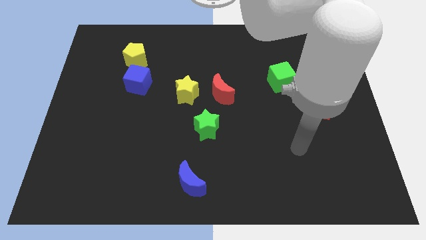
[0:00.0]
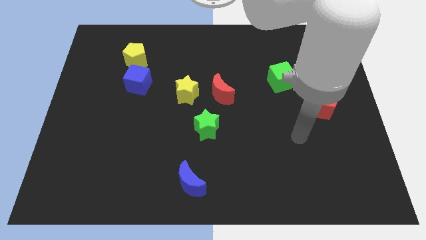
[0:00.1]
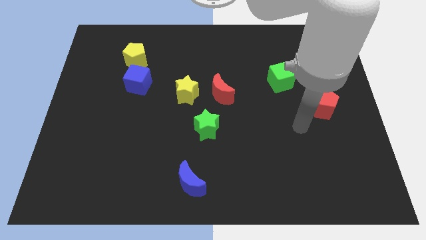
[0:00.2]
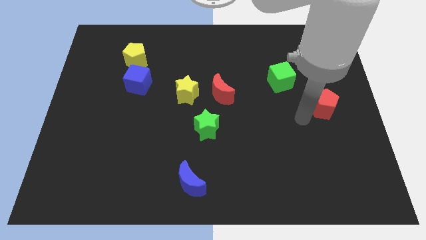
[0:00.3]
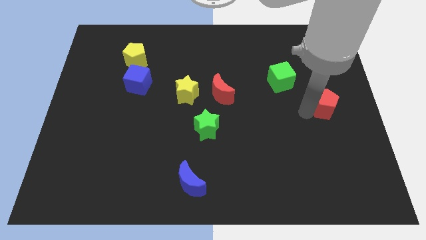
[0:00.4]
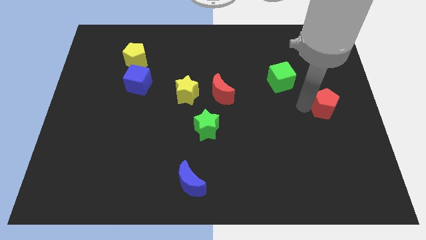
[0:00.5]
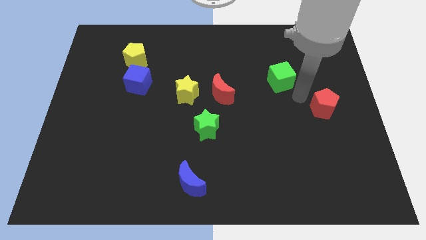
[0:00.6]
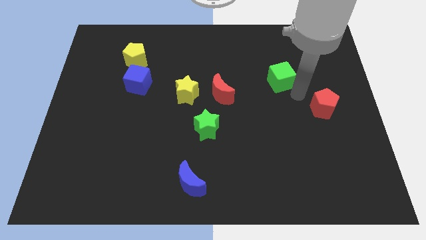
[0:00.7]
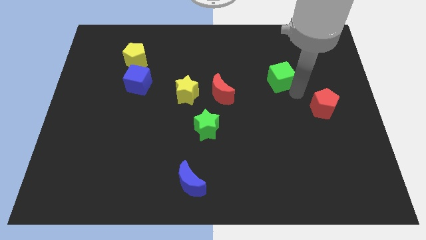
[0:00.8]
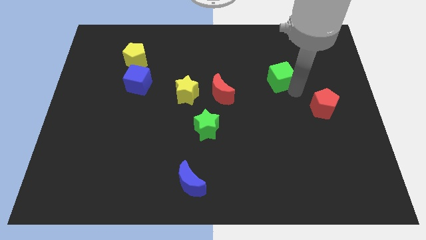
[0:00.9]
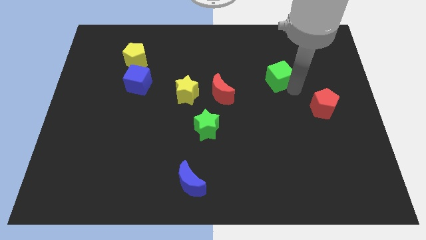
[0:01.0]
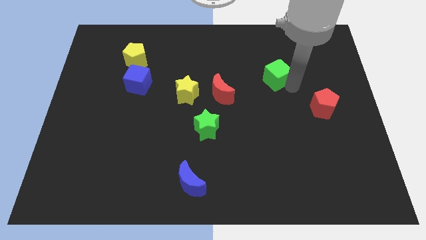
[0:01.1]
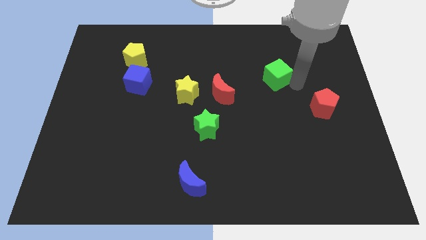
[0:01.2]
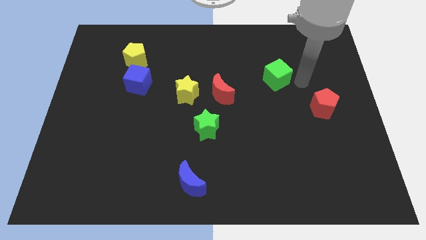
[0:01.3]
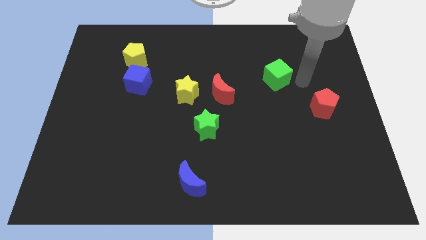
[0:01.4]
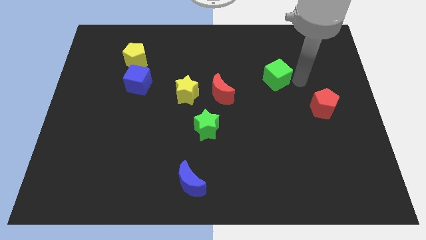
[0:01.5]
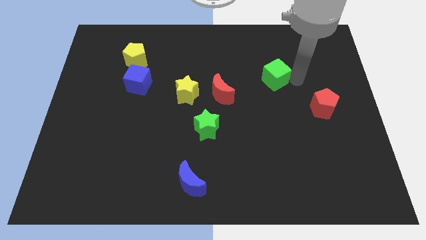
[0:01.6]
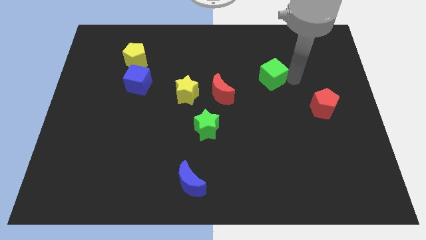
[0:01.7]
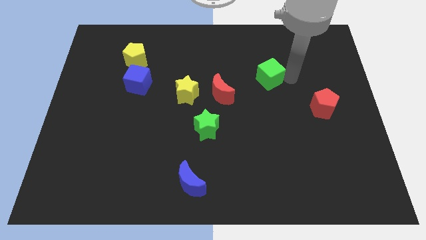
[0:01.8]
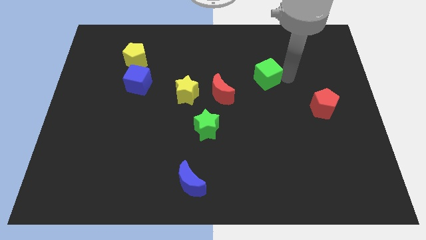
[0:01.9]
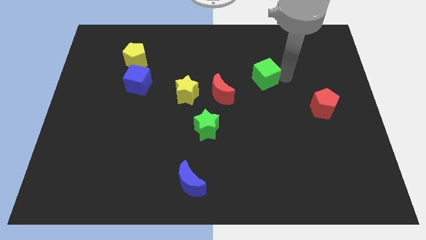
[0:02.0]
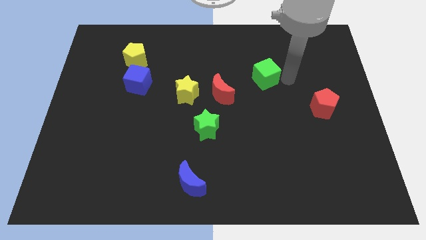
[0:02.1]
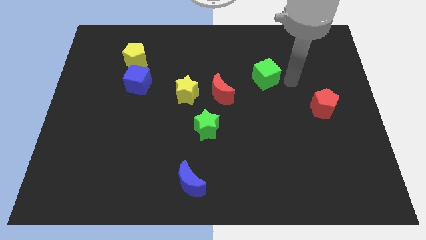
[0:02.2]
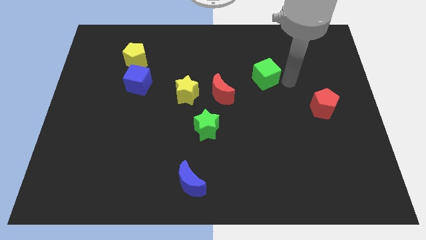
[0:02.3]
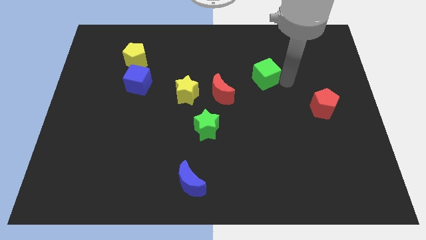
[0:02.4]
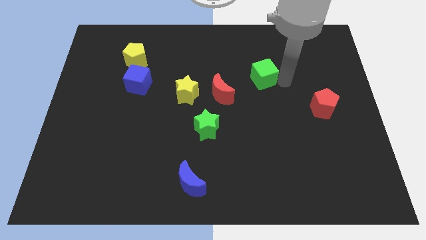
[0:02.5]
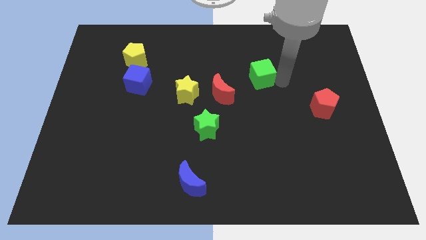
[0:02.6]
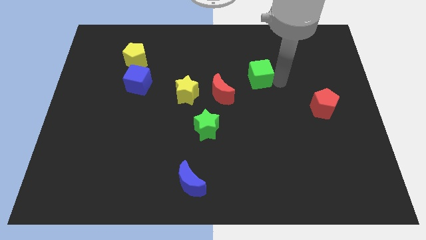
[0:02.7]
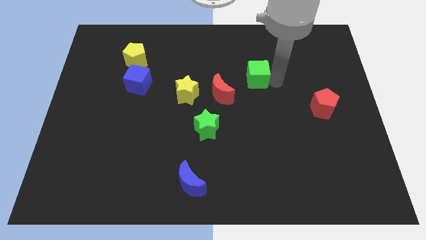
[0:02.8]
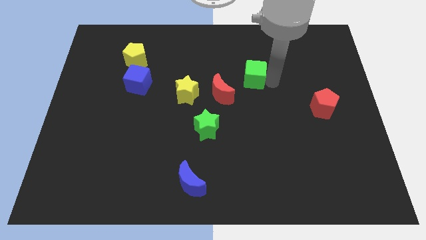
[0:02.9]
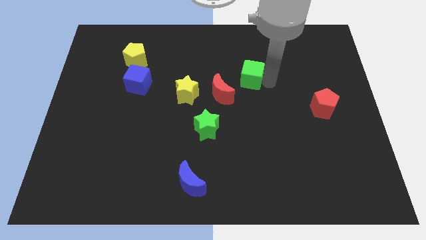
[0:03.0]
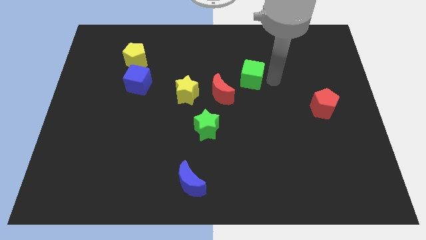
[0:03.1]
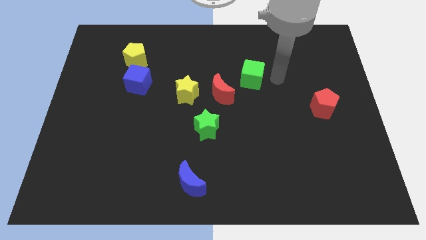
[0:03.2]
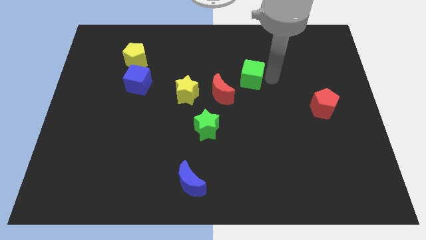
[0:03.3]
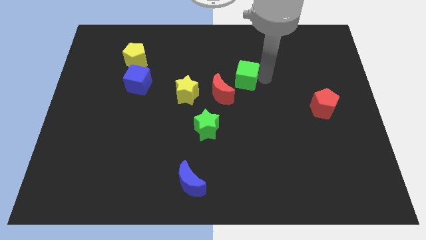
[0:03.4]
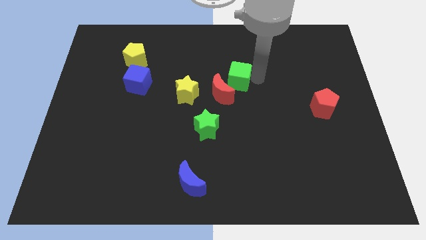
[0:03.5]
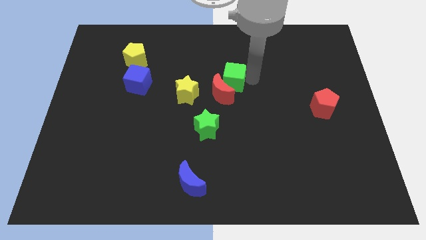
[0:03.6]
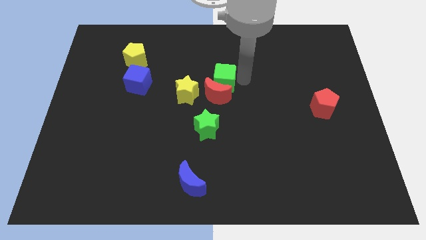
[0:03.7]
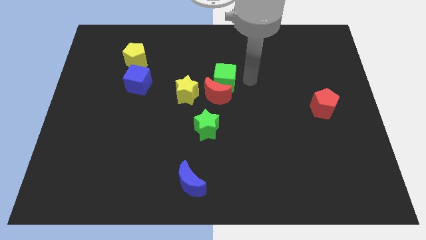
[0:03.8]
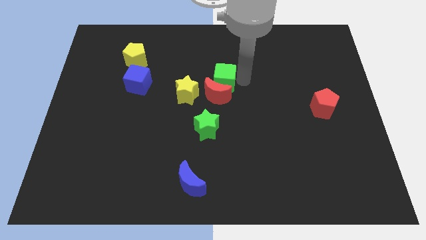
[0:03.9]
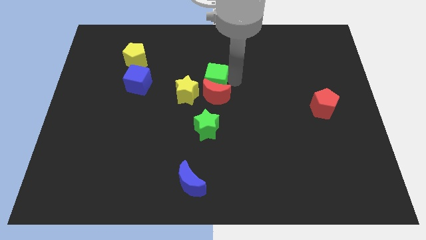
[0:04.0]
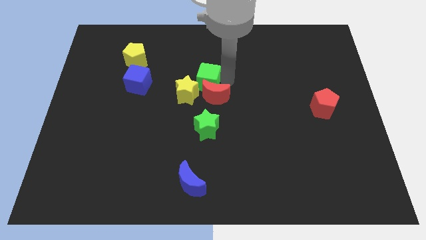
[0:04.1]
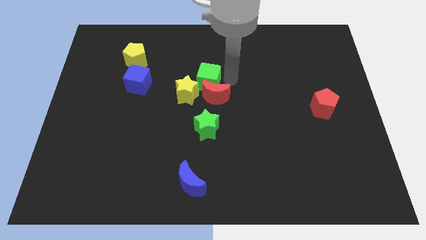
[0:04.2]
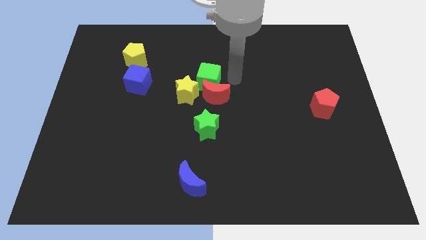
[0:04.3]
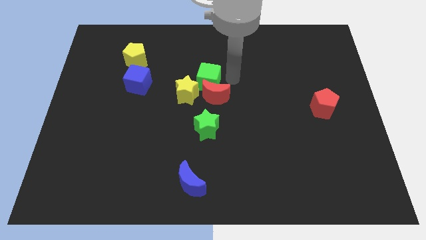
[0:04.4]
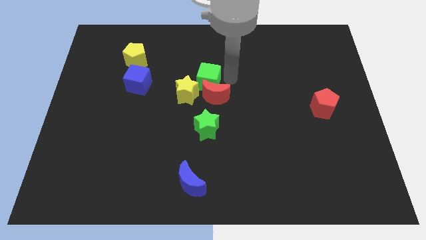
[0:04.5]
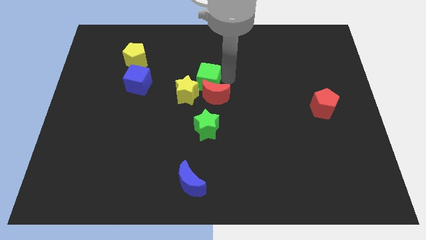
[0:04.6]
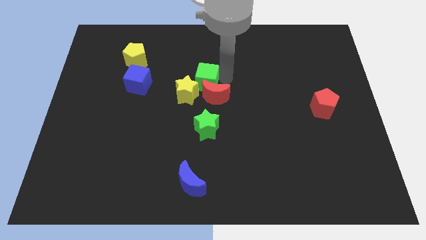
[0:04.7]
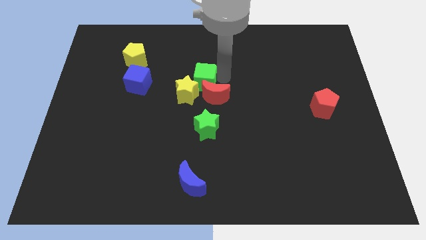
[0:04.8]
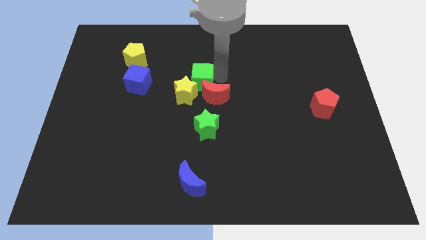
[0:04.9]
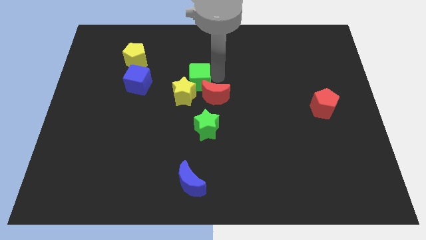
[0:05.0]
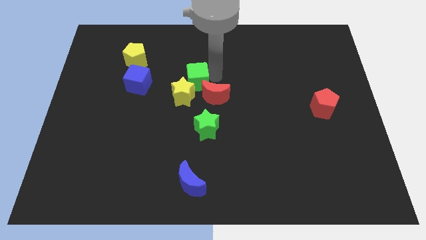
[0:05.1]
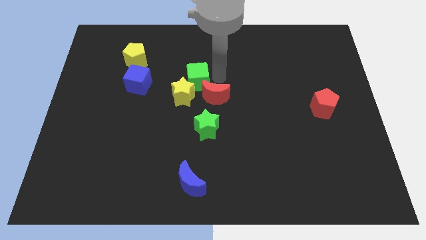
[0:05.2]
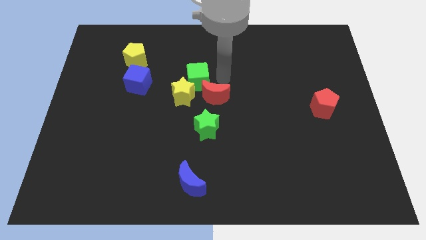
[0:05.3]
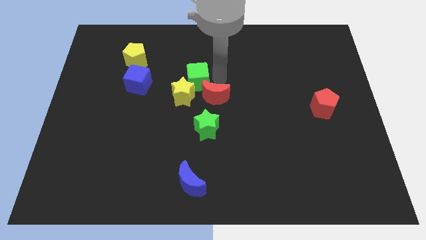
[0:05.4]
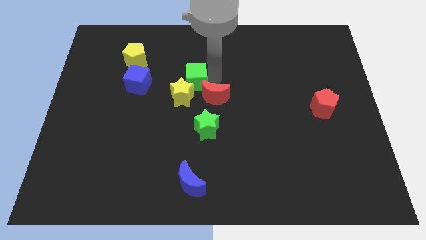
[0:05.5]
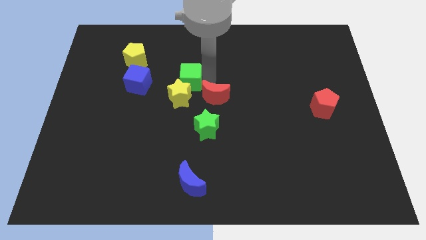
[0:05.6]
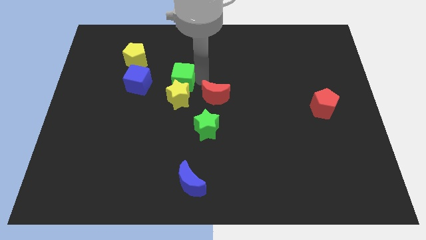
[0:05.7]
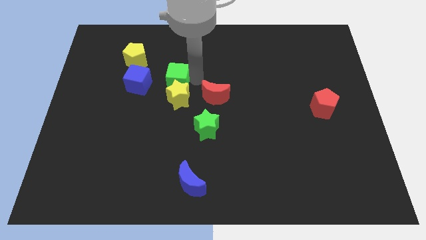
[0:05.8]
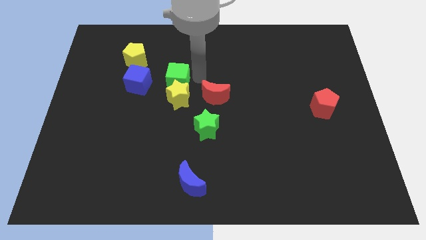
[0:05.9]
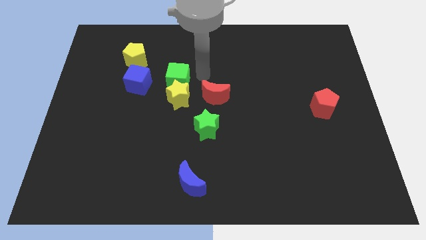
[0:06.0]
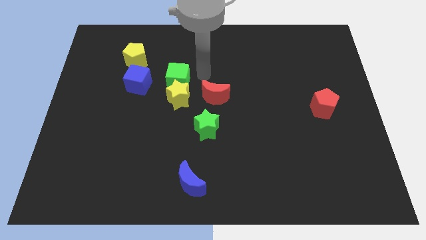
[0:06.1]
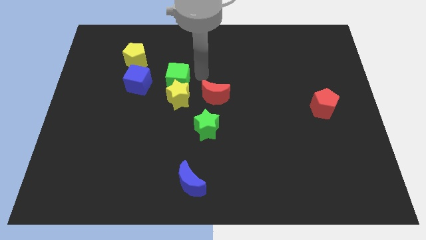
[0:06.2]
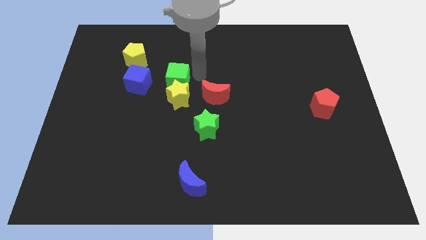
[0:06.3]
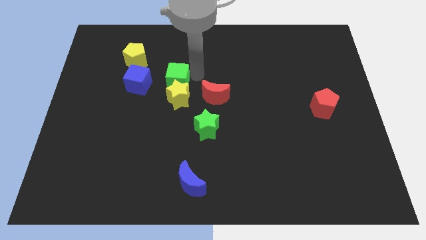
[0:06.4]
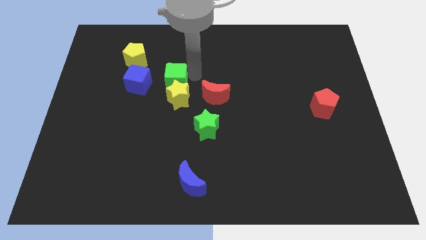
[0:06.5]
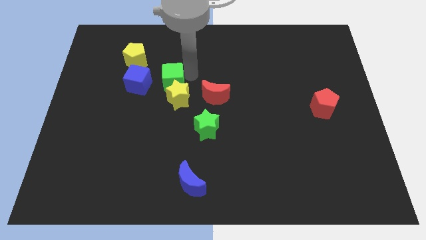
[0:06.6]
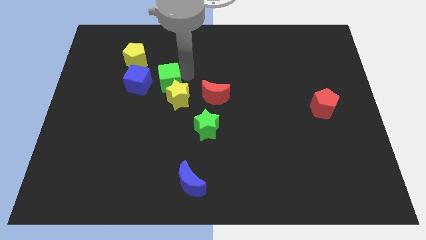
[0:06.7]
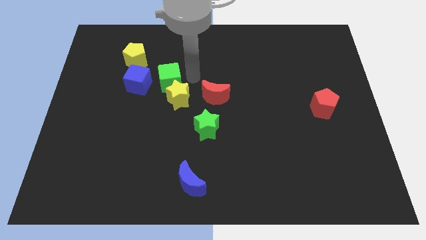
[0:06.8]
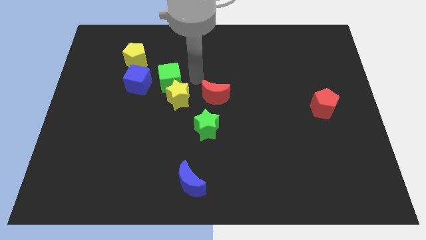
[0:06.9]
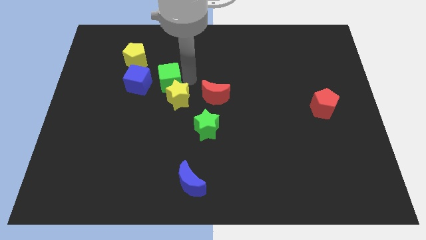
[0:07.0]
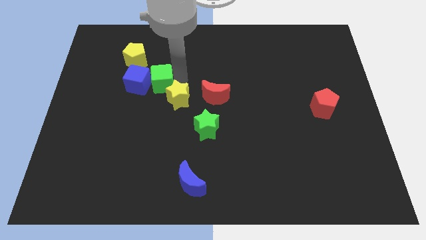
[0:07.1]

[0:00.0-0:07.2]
push the green cube to the blue cube
